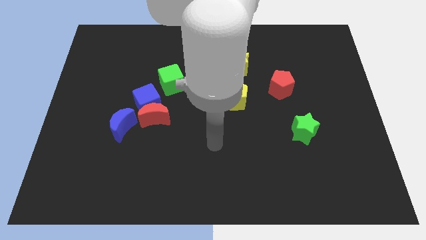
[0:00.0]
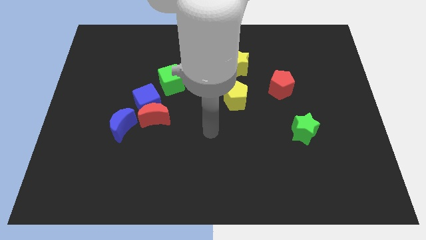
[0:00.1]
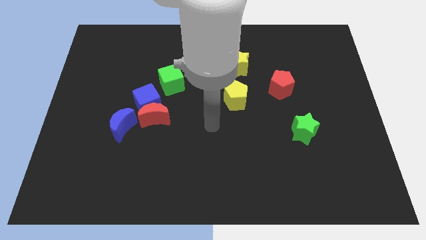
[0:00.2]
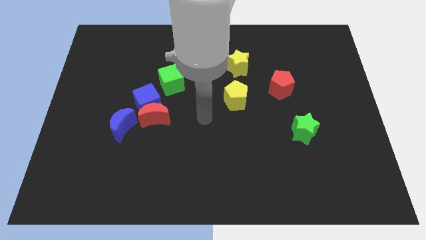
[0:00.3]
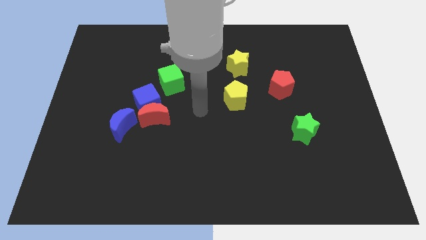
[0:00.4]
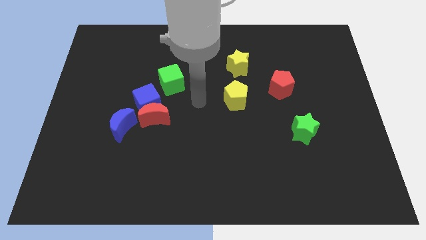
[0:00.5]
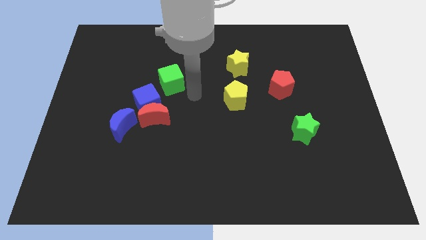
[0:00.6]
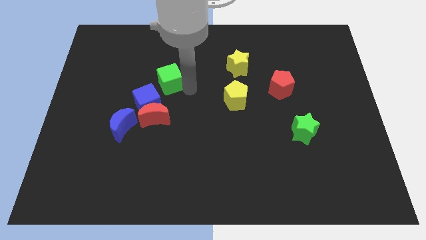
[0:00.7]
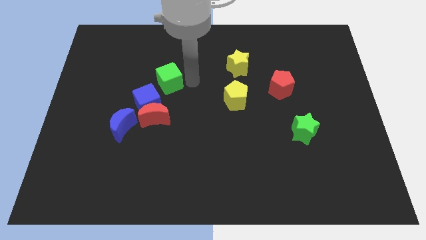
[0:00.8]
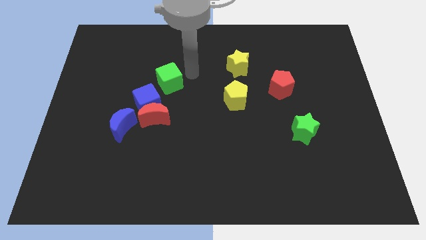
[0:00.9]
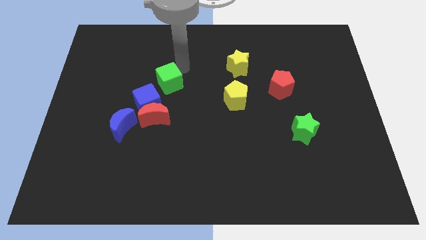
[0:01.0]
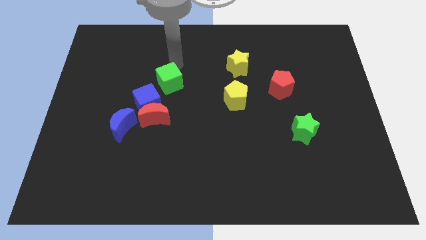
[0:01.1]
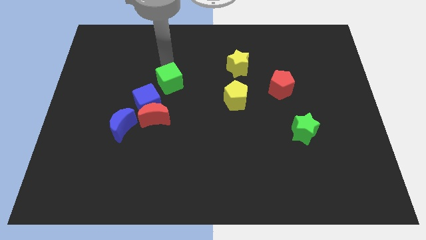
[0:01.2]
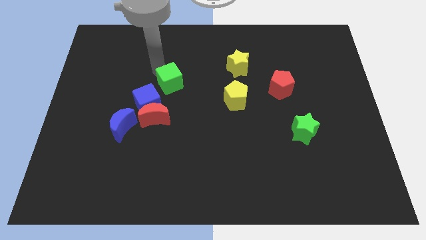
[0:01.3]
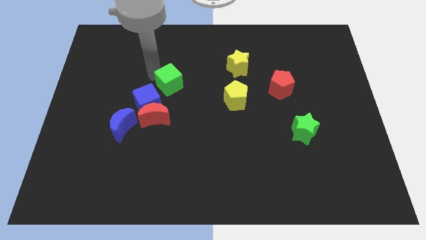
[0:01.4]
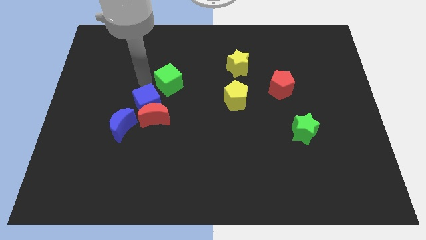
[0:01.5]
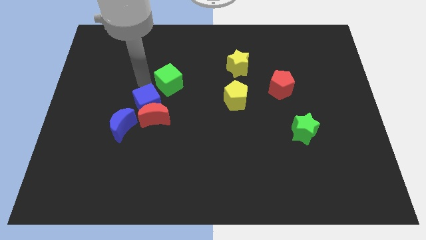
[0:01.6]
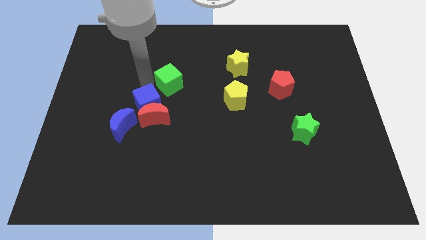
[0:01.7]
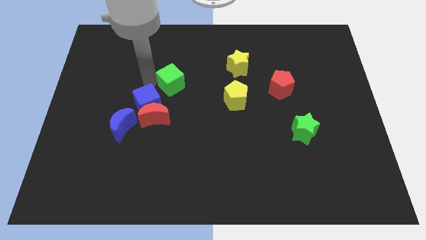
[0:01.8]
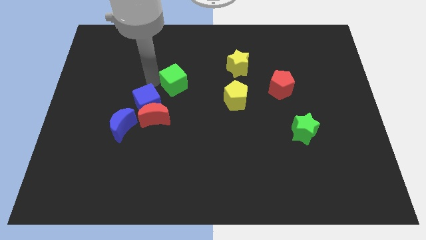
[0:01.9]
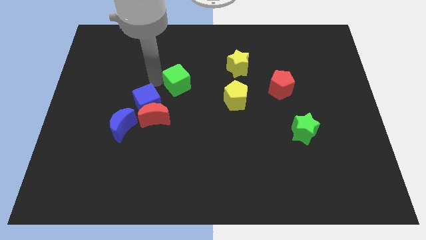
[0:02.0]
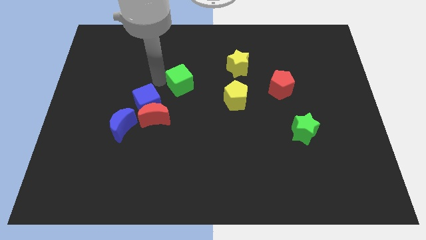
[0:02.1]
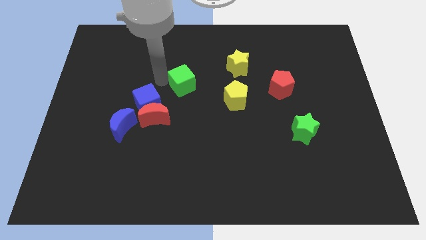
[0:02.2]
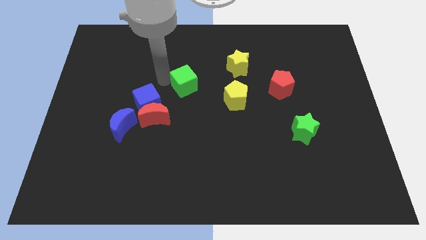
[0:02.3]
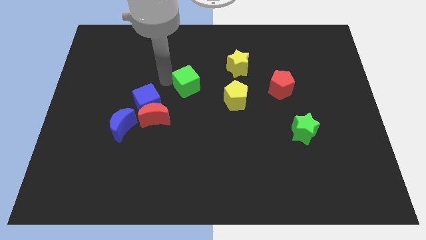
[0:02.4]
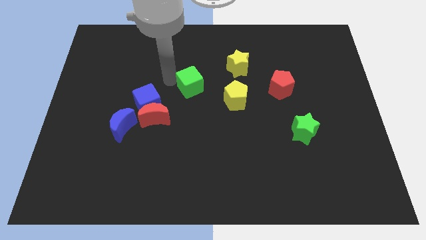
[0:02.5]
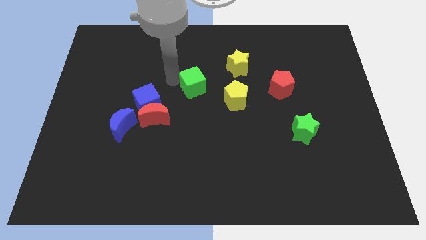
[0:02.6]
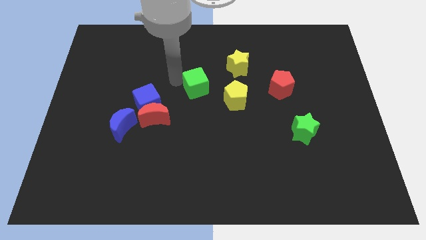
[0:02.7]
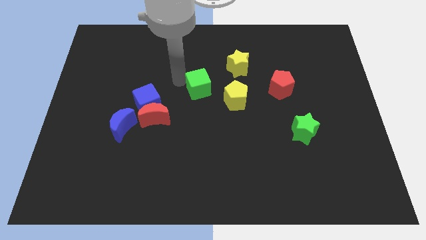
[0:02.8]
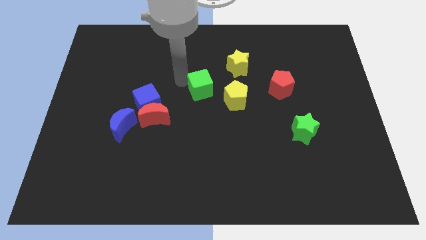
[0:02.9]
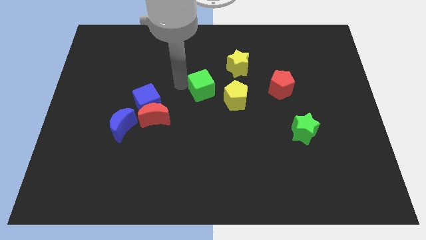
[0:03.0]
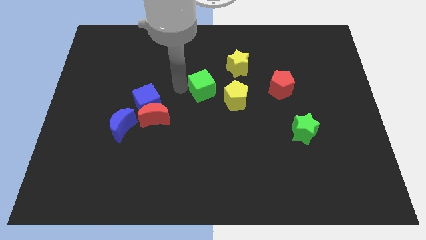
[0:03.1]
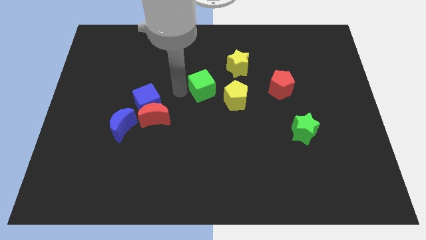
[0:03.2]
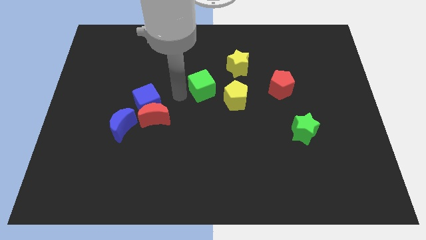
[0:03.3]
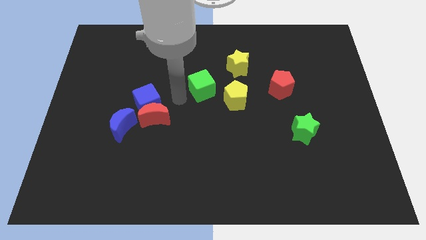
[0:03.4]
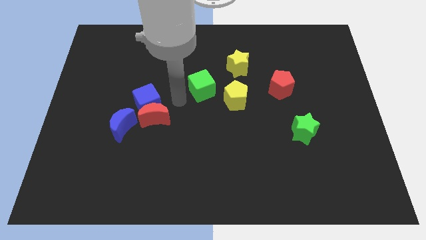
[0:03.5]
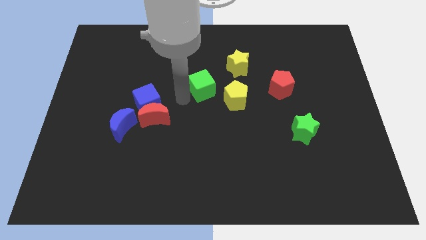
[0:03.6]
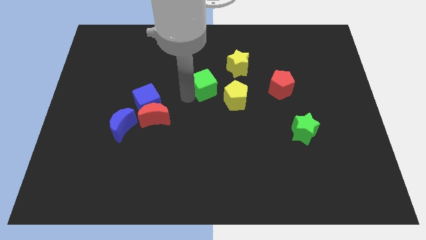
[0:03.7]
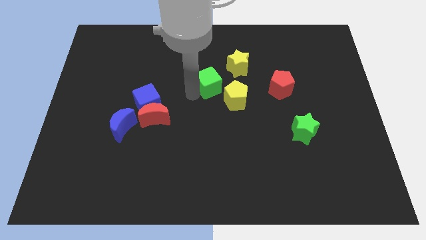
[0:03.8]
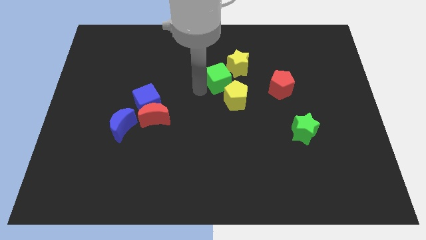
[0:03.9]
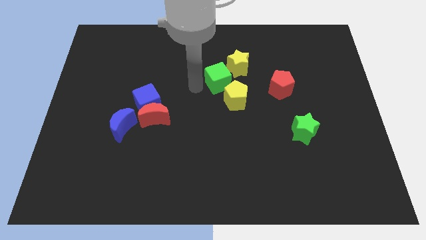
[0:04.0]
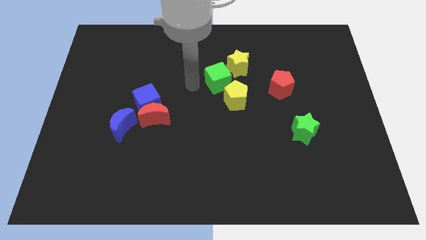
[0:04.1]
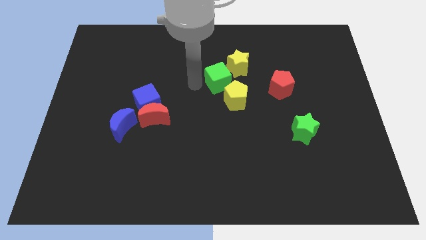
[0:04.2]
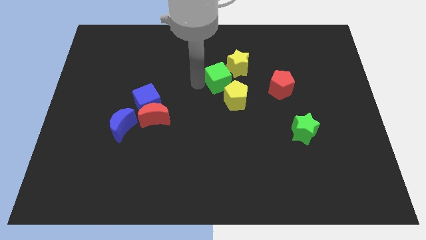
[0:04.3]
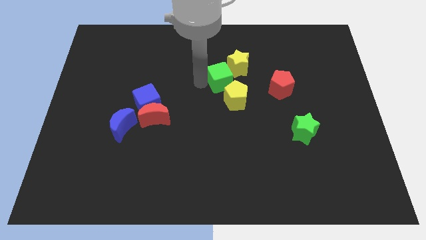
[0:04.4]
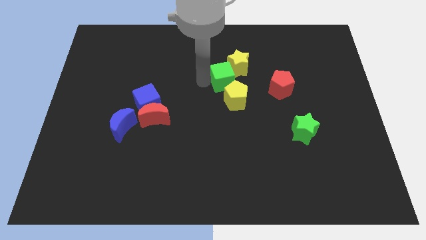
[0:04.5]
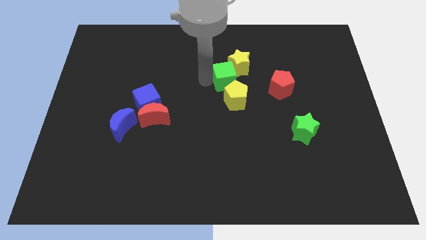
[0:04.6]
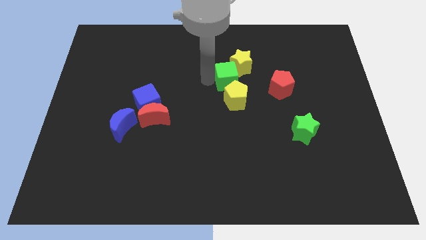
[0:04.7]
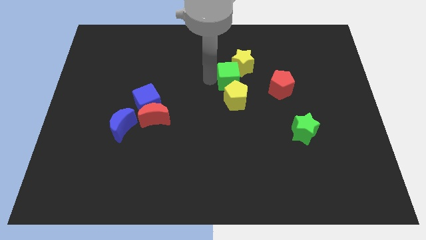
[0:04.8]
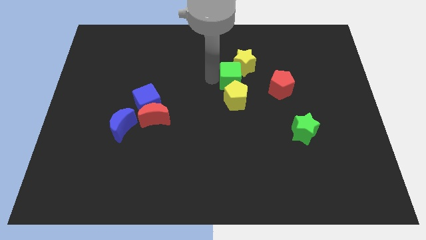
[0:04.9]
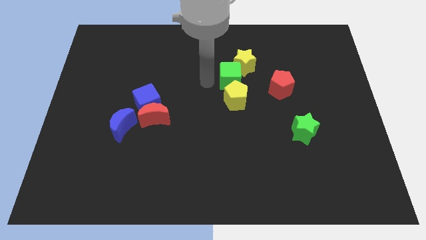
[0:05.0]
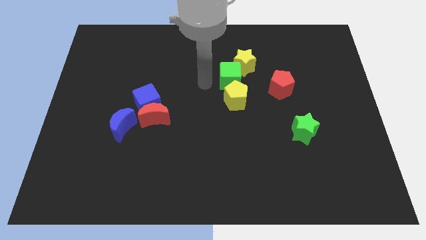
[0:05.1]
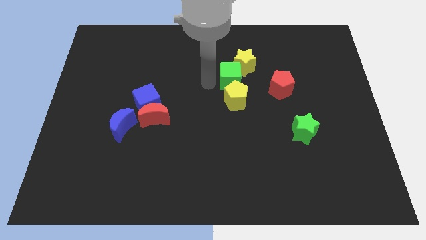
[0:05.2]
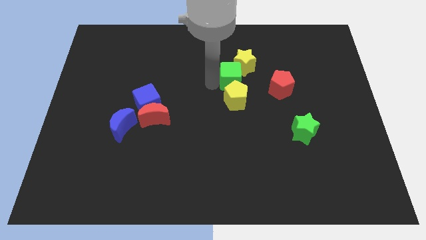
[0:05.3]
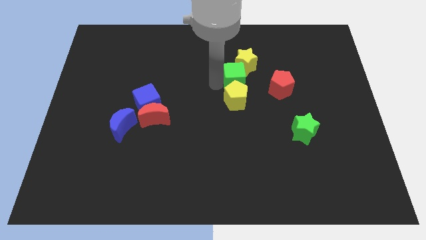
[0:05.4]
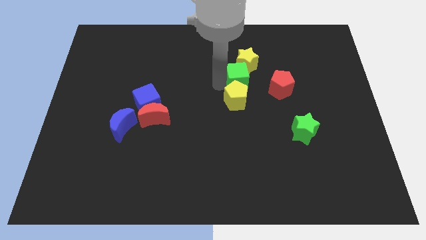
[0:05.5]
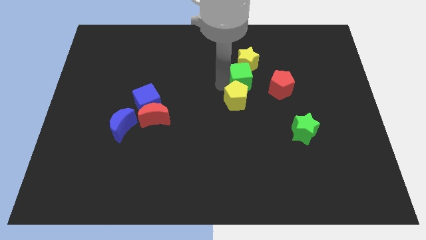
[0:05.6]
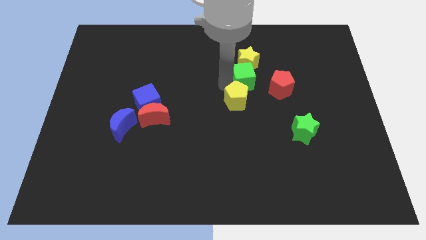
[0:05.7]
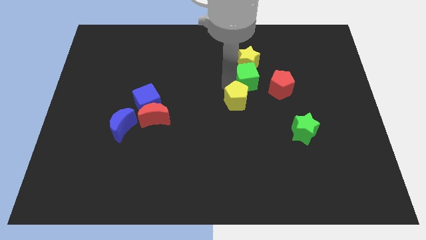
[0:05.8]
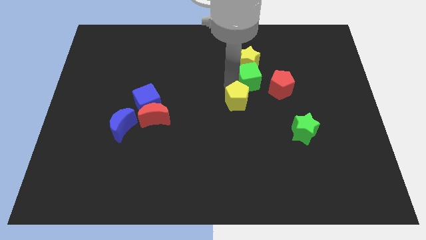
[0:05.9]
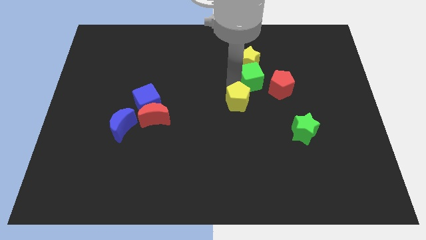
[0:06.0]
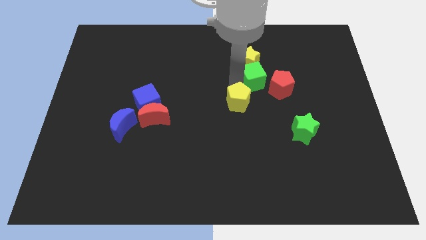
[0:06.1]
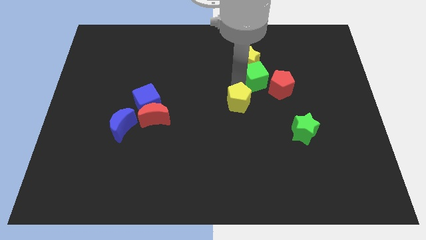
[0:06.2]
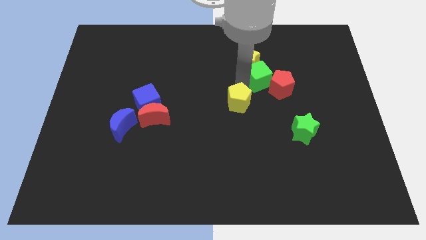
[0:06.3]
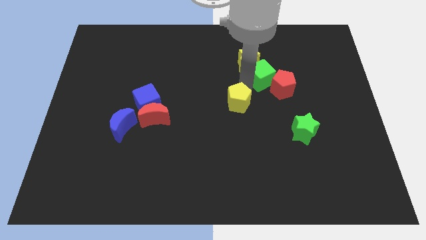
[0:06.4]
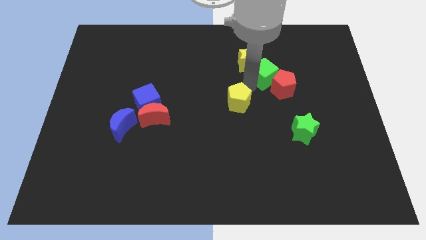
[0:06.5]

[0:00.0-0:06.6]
put the green cube to the top of the red pentagon
